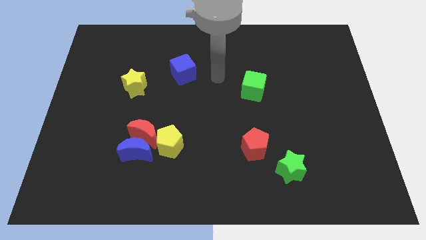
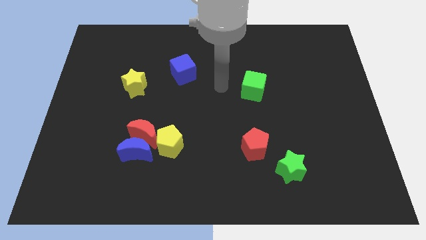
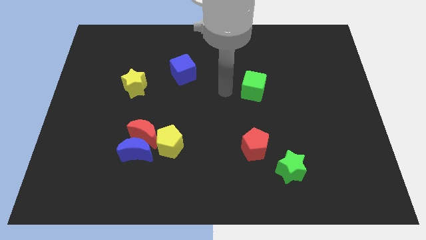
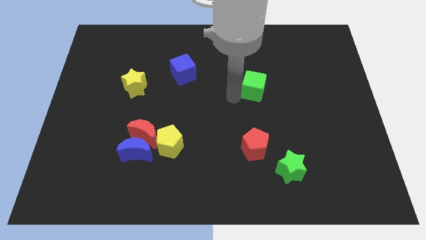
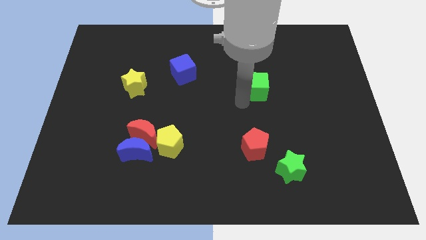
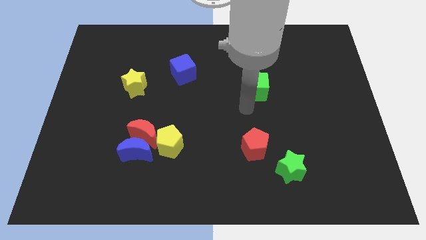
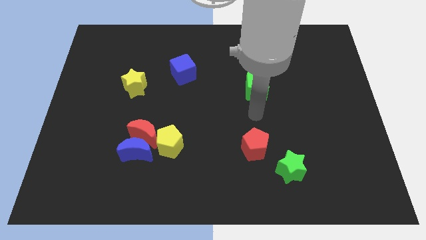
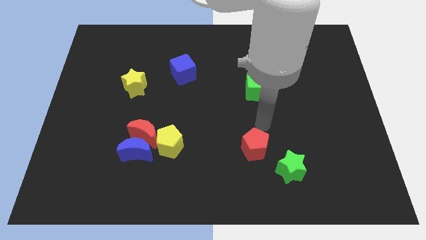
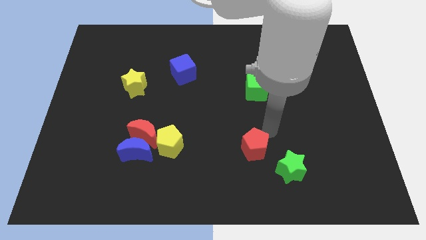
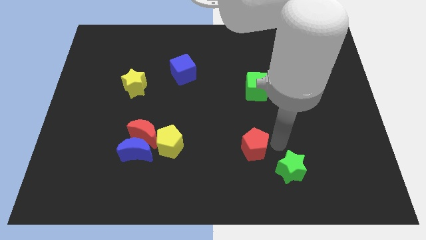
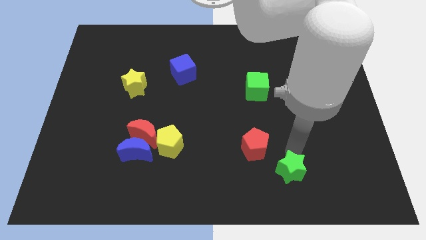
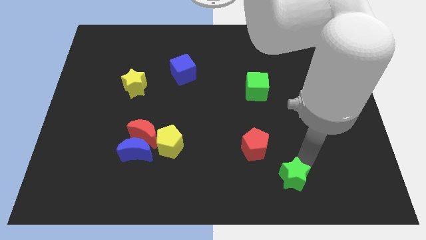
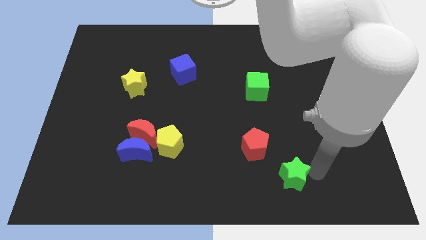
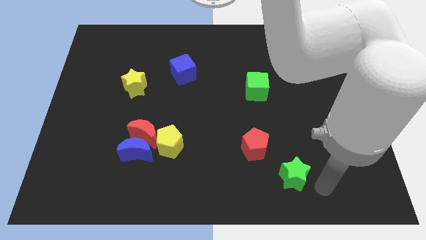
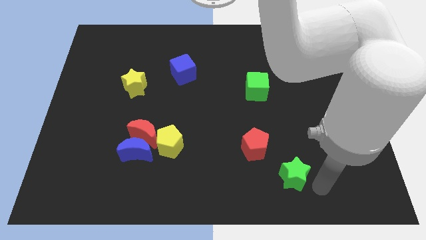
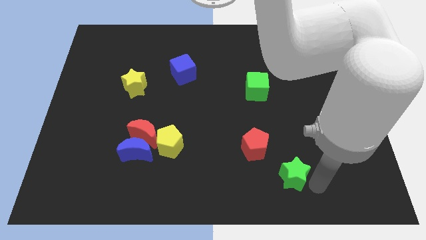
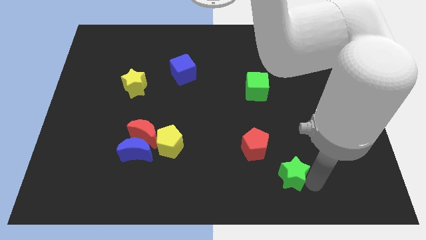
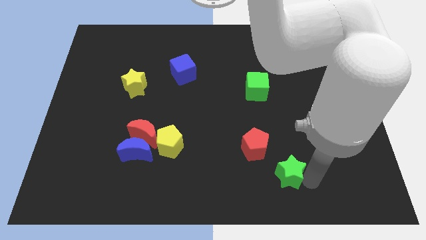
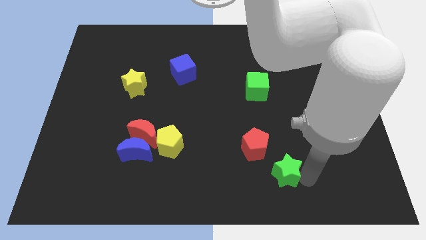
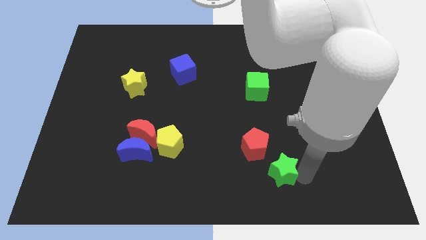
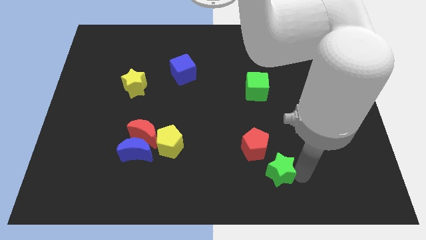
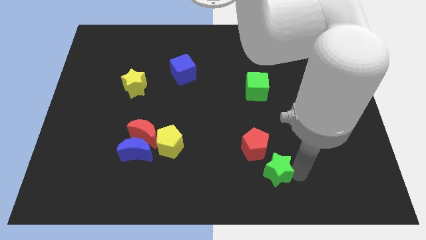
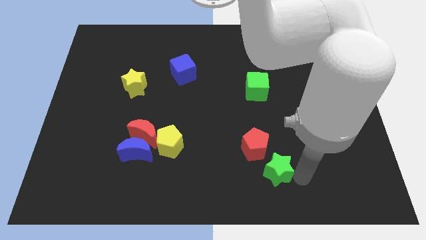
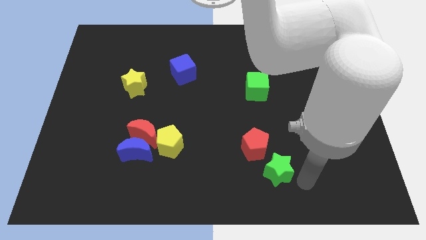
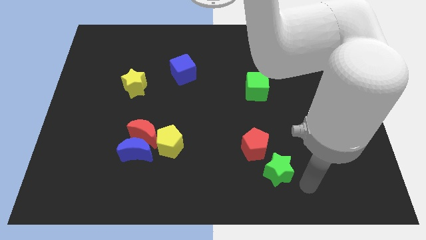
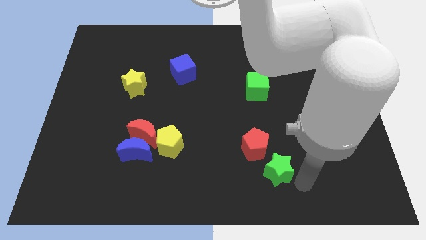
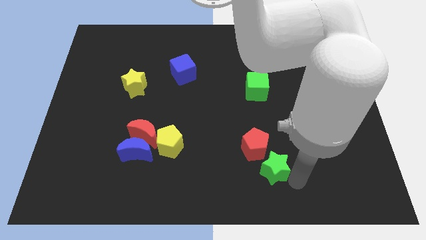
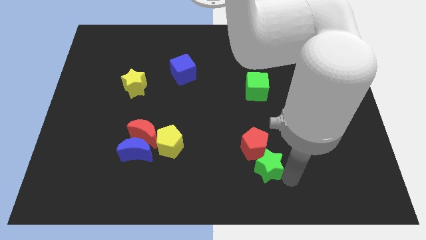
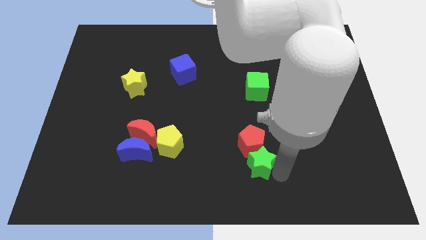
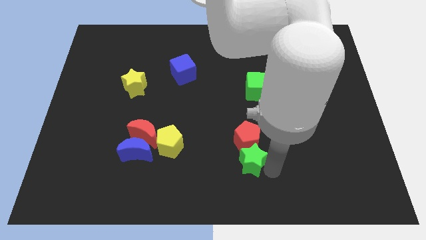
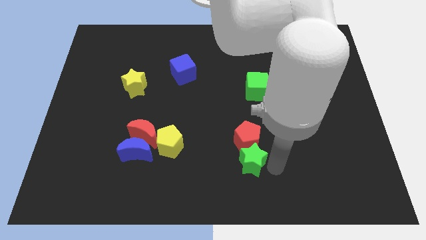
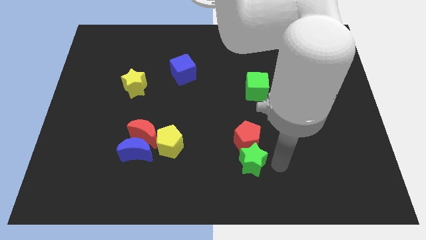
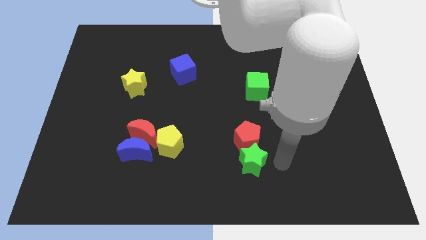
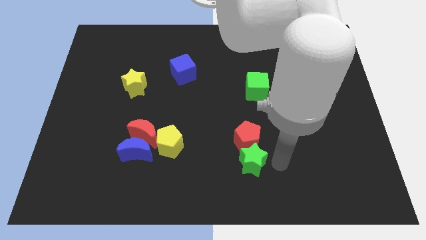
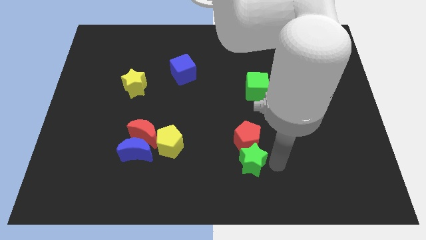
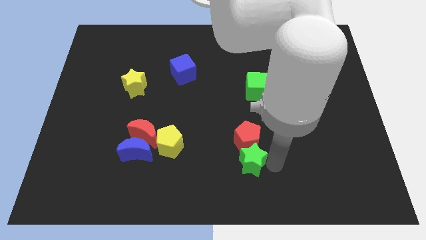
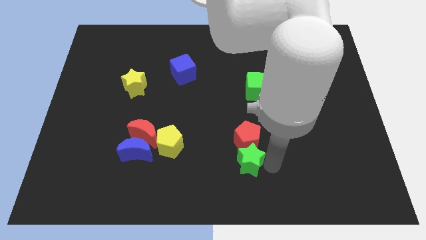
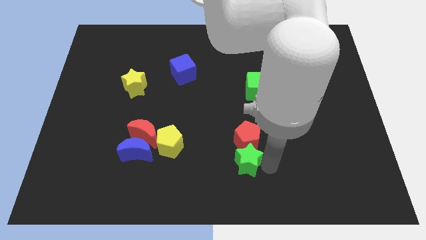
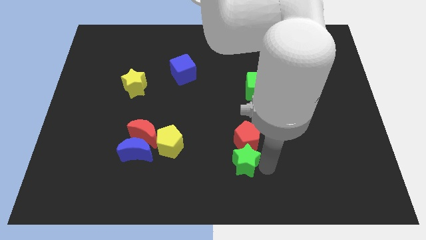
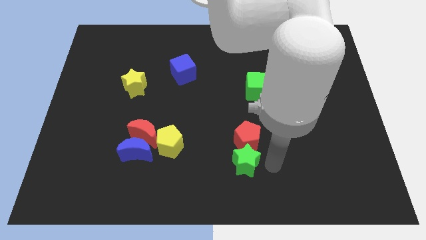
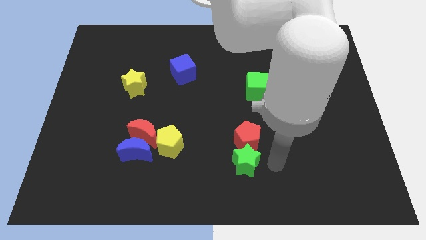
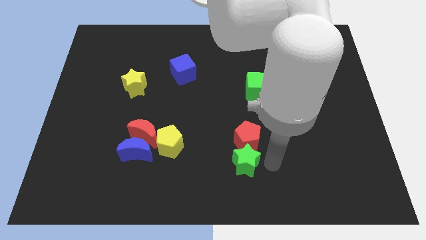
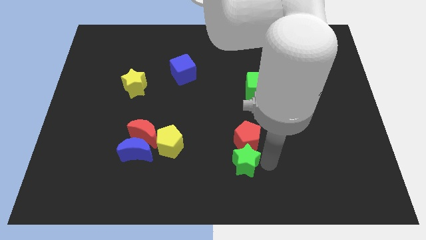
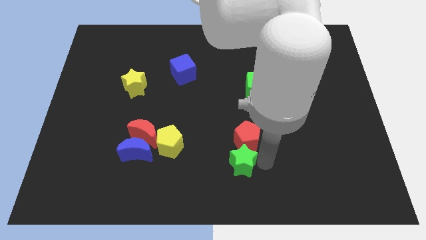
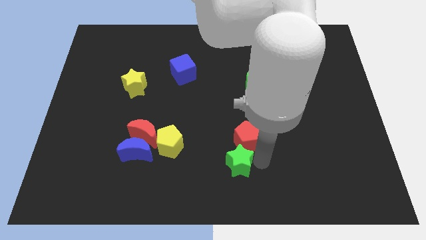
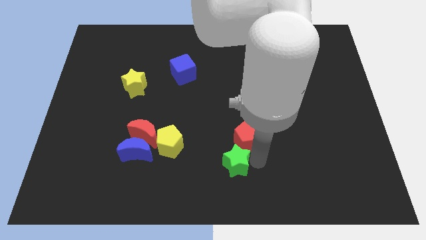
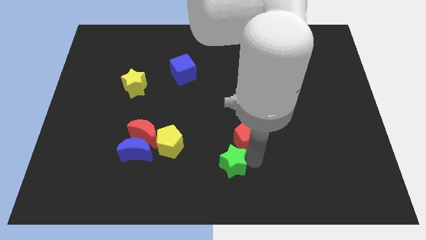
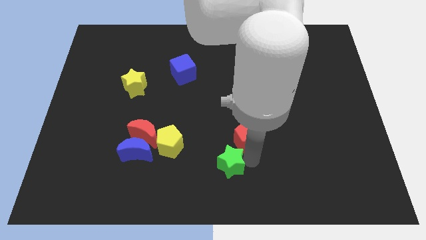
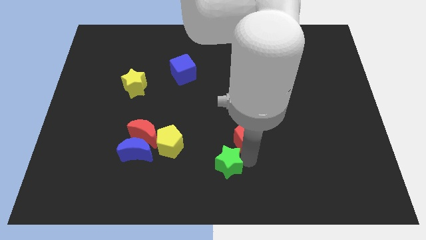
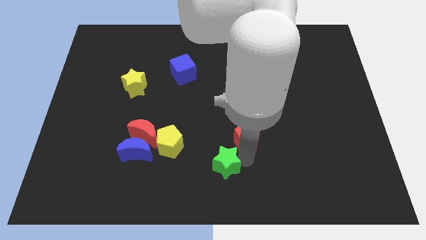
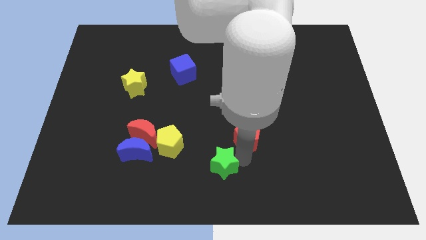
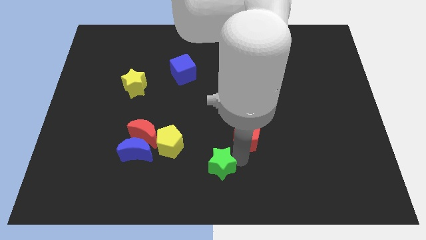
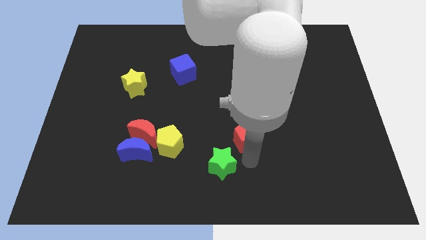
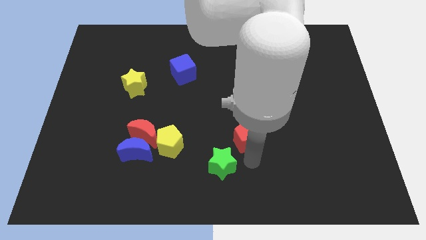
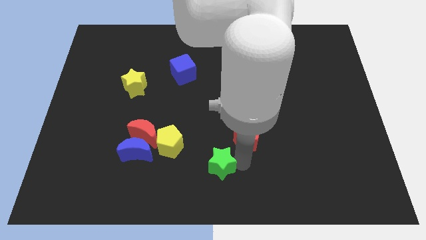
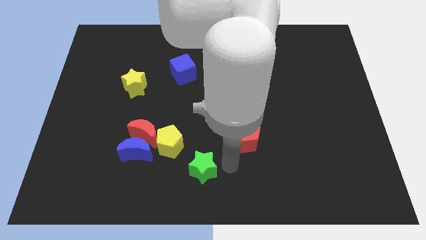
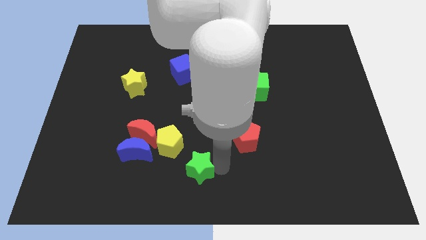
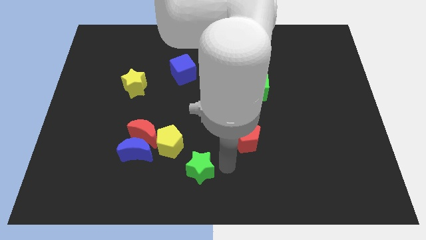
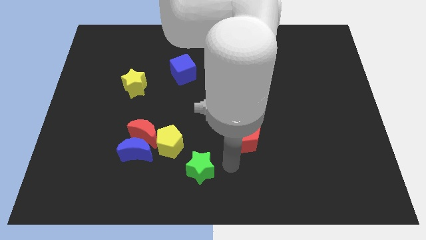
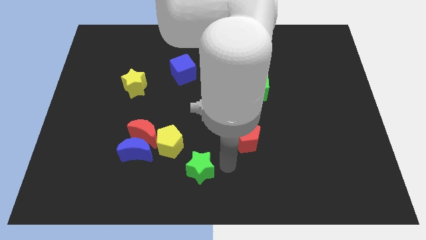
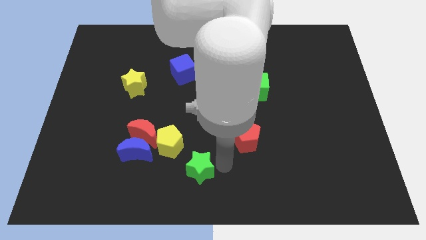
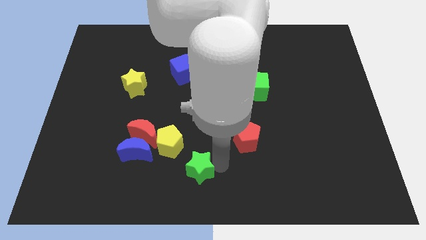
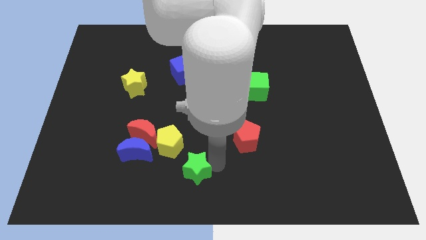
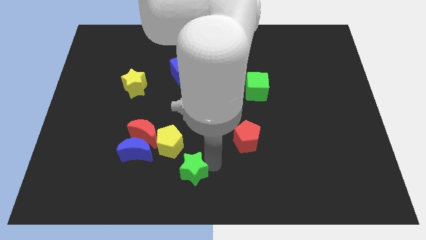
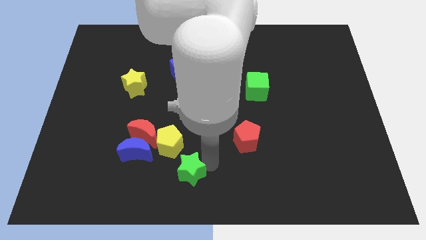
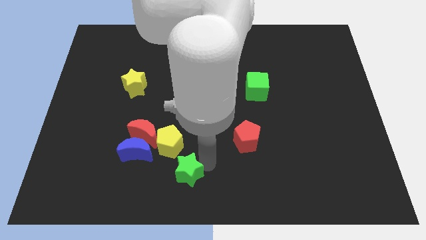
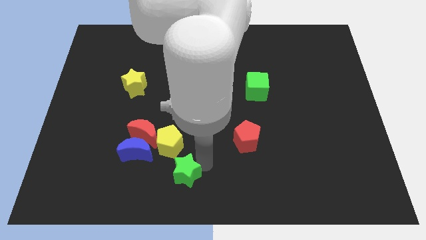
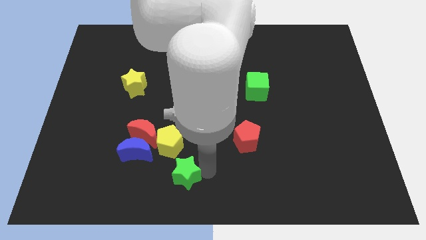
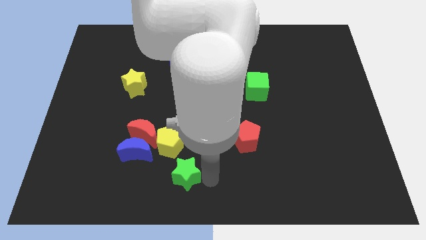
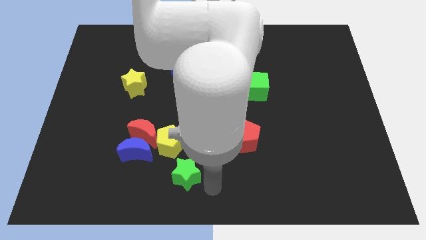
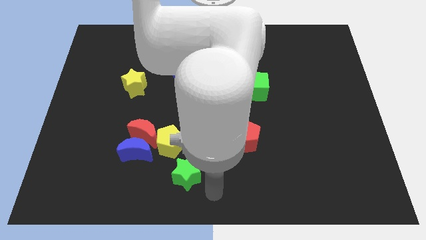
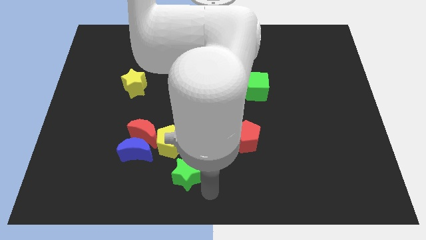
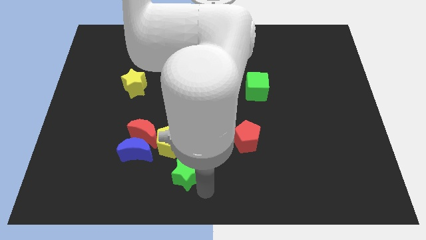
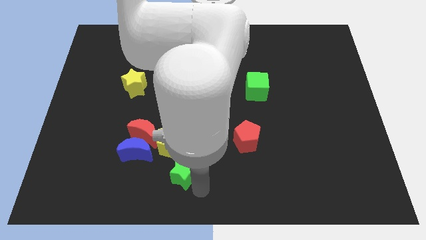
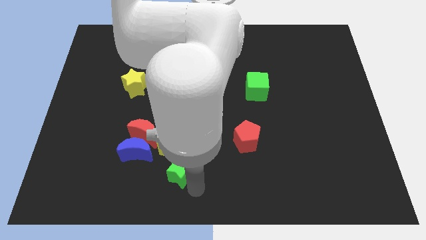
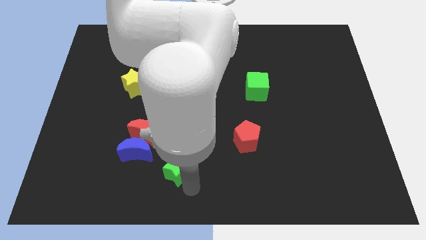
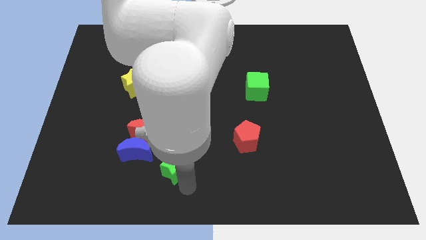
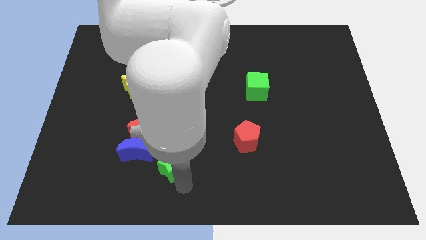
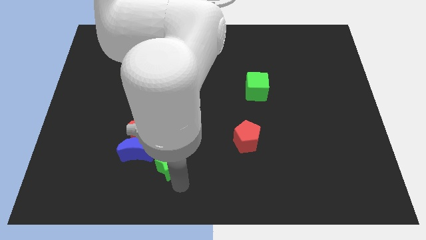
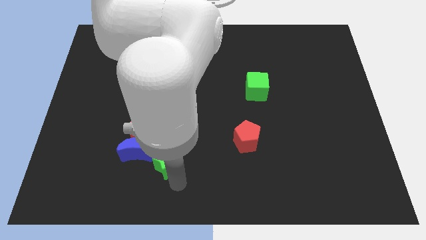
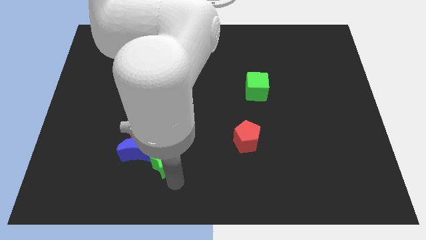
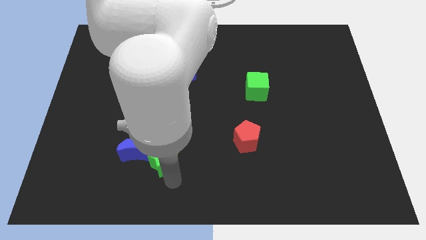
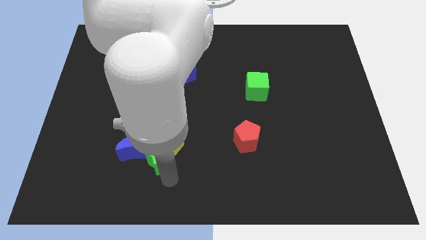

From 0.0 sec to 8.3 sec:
put the green star towards the blue moon
